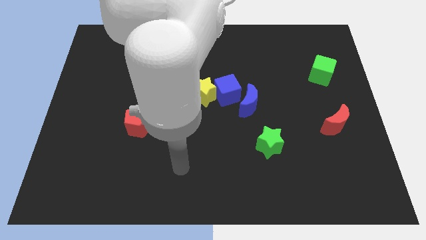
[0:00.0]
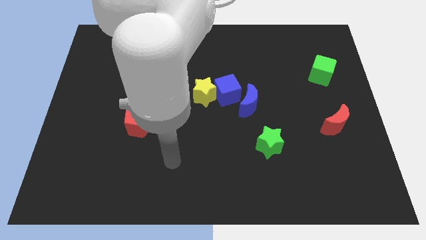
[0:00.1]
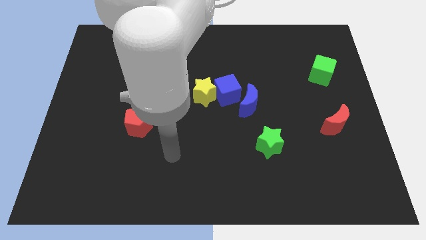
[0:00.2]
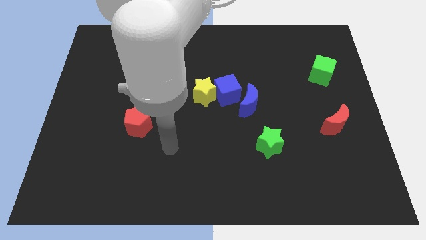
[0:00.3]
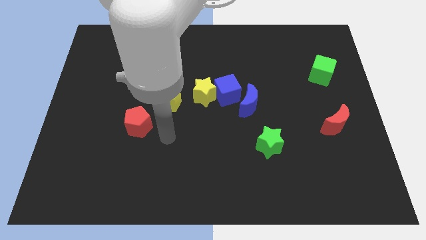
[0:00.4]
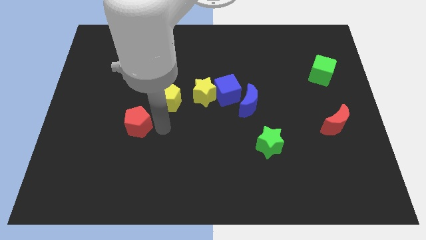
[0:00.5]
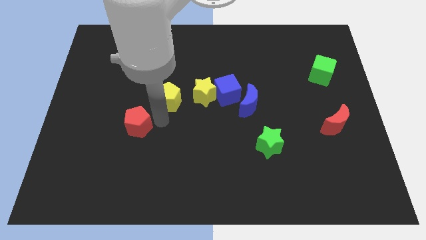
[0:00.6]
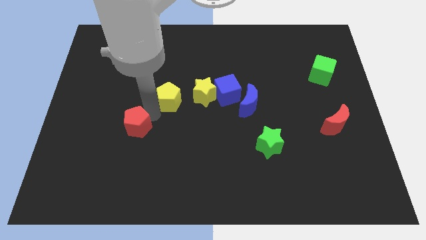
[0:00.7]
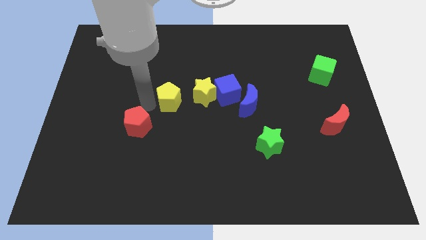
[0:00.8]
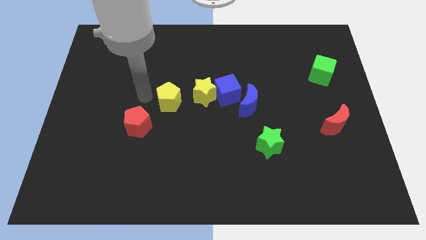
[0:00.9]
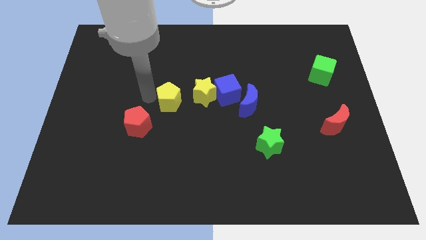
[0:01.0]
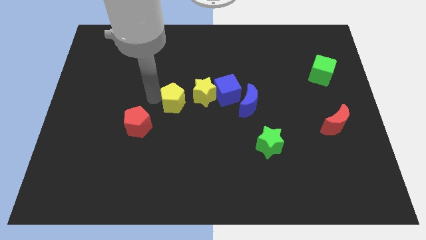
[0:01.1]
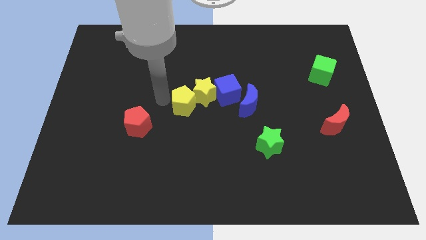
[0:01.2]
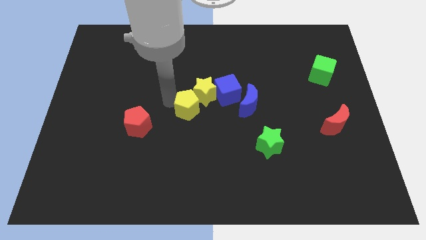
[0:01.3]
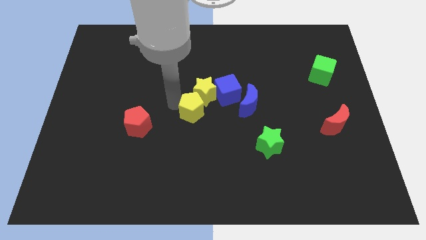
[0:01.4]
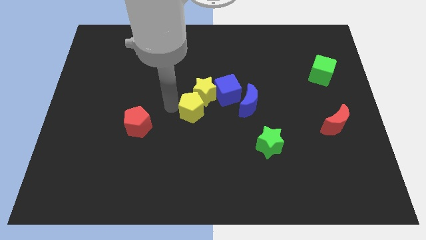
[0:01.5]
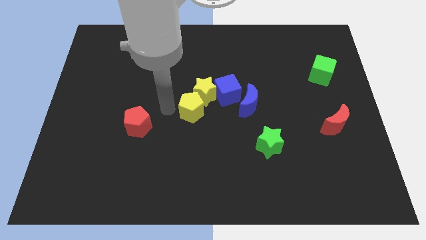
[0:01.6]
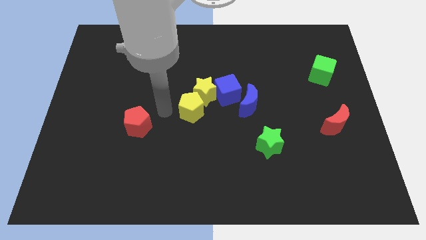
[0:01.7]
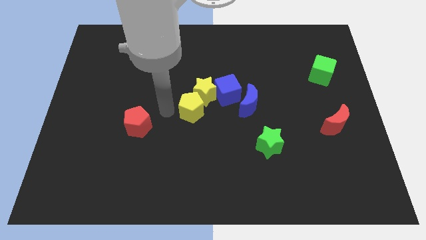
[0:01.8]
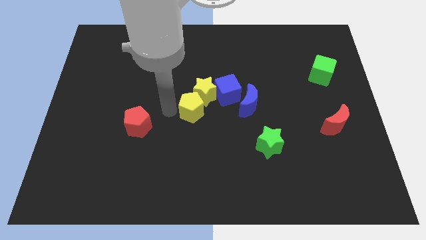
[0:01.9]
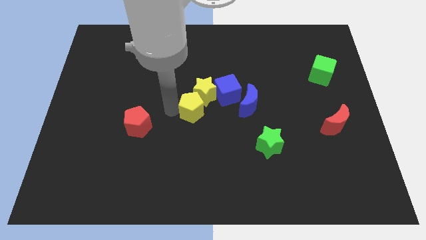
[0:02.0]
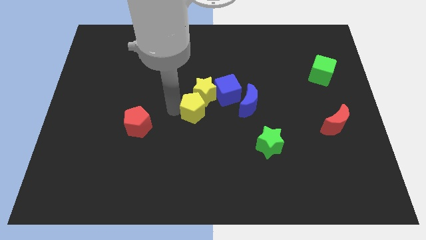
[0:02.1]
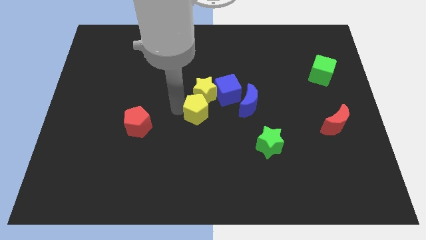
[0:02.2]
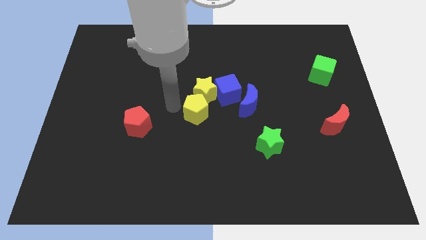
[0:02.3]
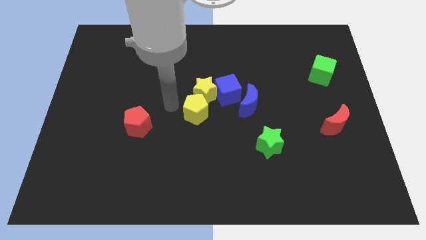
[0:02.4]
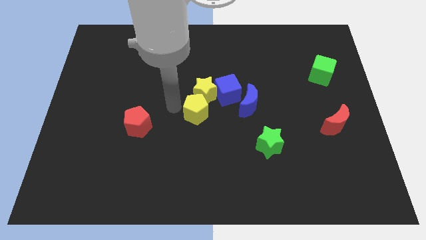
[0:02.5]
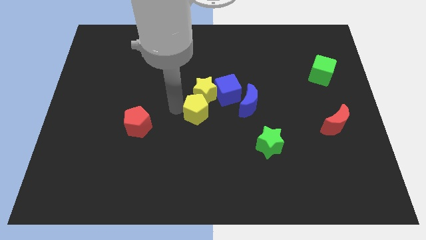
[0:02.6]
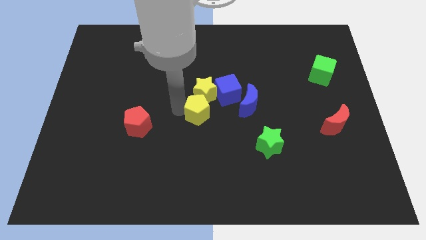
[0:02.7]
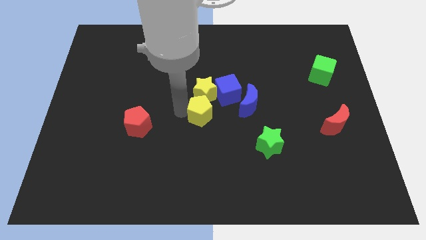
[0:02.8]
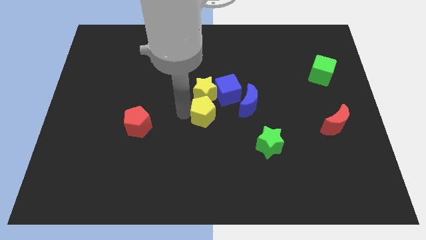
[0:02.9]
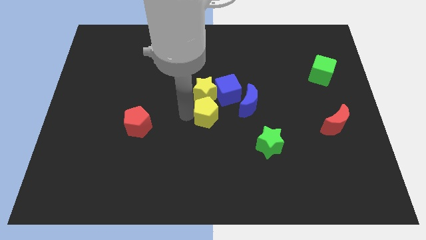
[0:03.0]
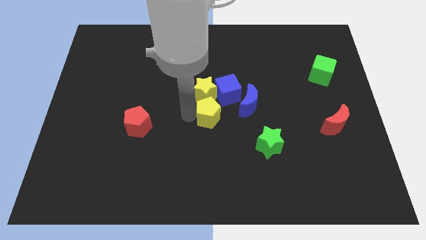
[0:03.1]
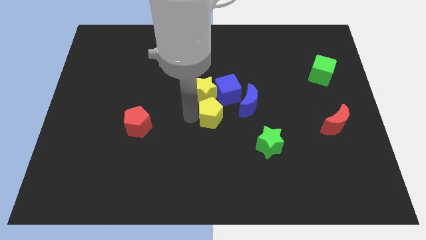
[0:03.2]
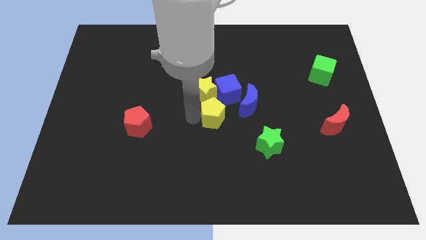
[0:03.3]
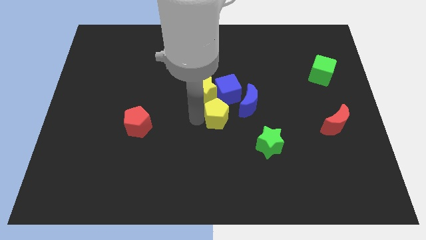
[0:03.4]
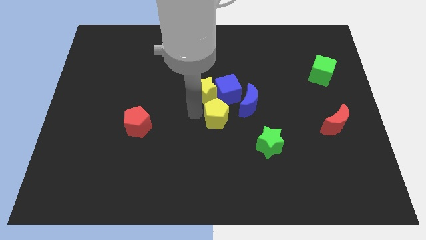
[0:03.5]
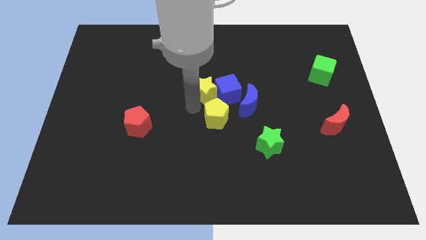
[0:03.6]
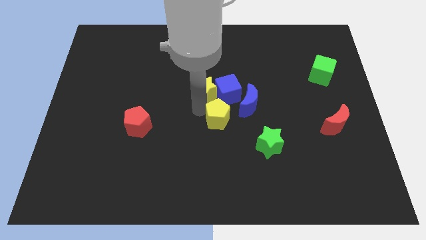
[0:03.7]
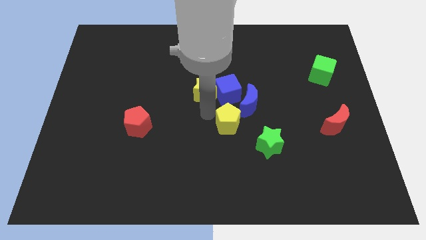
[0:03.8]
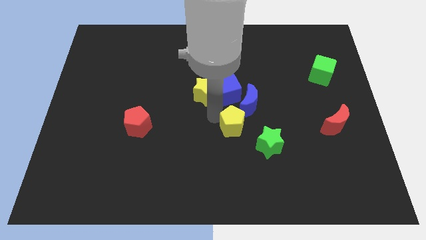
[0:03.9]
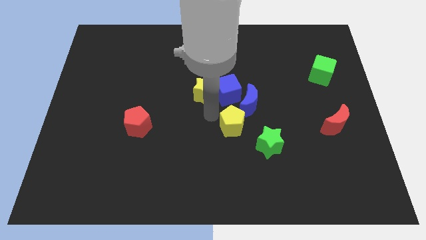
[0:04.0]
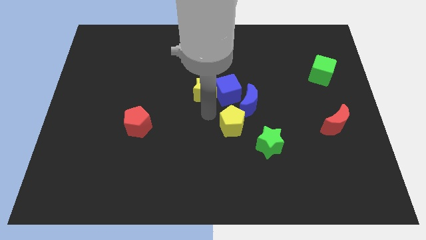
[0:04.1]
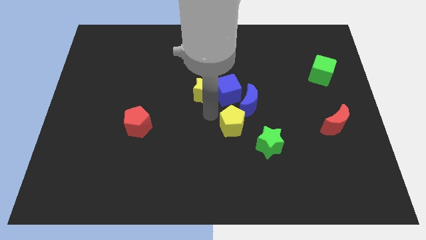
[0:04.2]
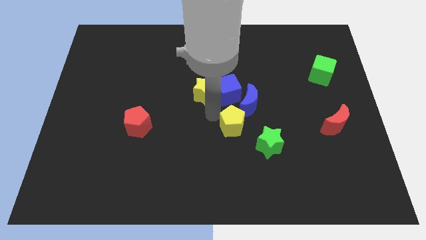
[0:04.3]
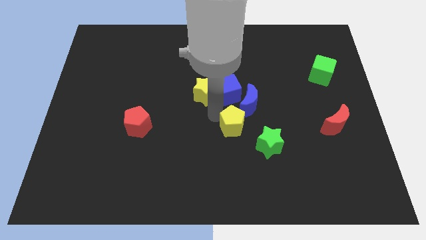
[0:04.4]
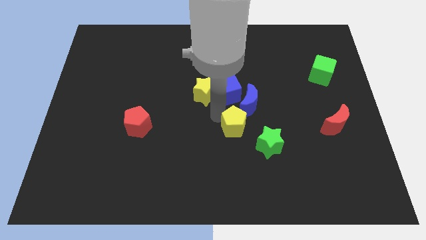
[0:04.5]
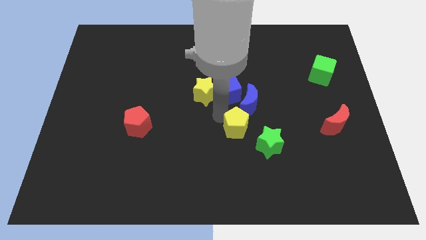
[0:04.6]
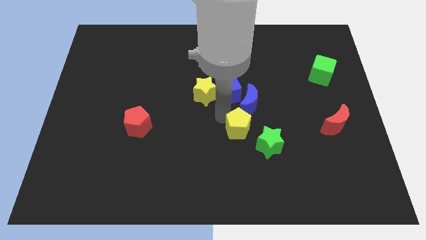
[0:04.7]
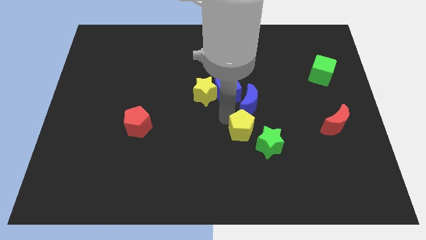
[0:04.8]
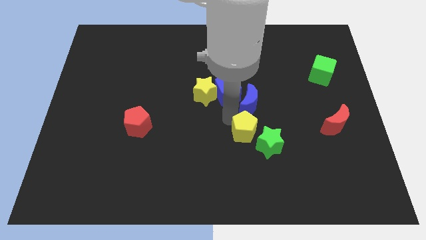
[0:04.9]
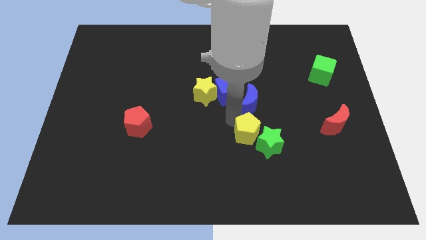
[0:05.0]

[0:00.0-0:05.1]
push the yellow pentagon to the green star

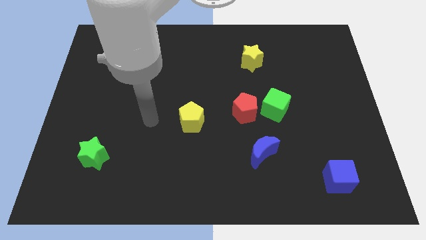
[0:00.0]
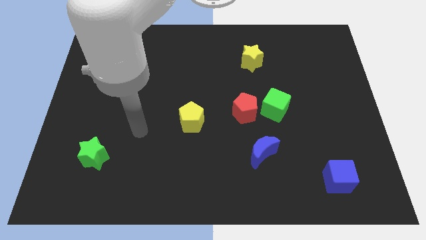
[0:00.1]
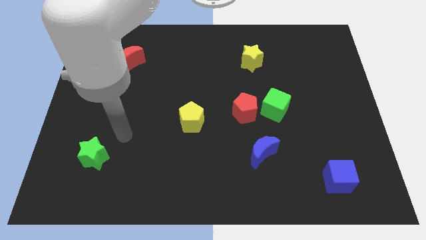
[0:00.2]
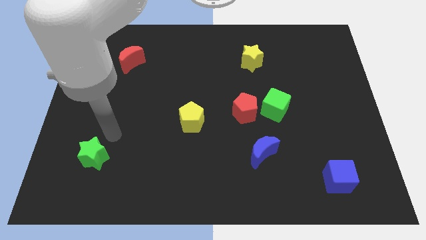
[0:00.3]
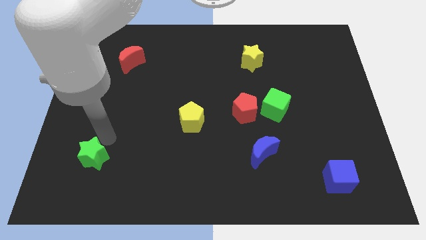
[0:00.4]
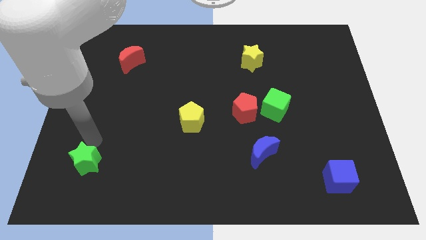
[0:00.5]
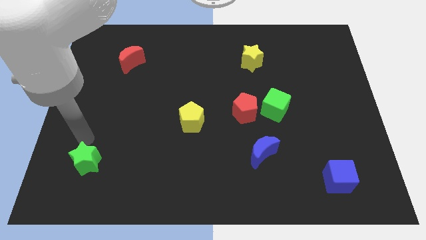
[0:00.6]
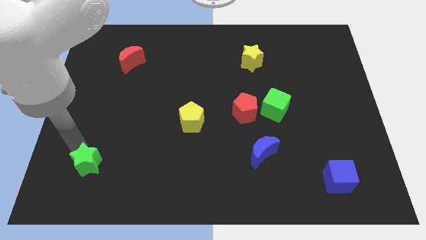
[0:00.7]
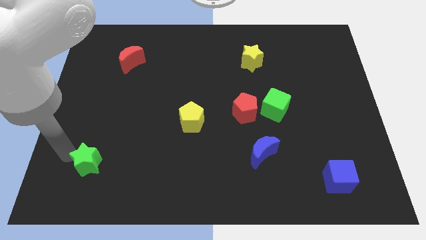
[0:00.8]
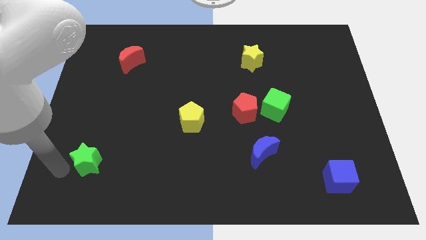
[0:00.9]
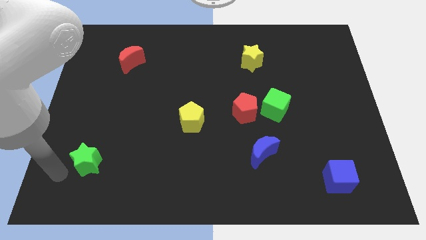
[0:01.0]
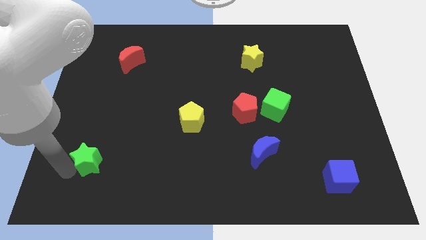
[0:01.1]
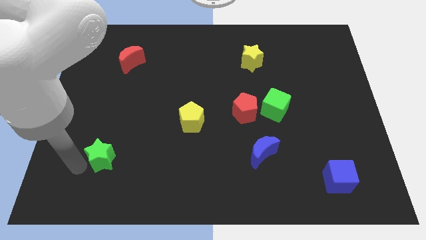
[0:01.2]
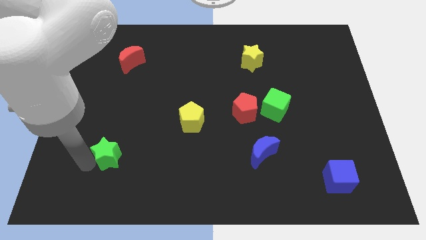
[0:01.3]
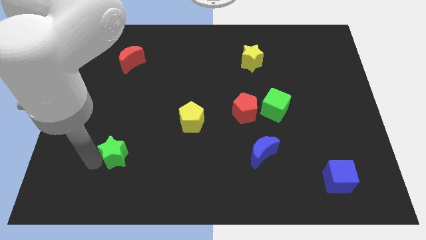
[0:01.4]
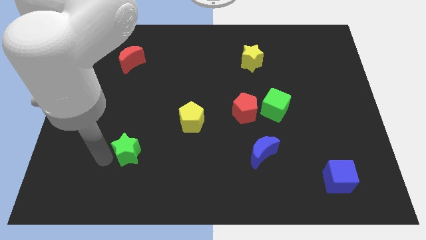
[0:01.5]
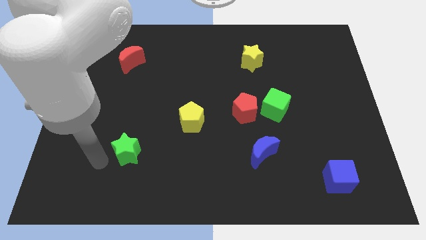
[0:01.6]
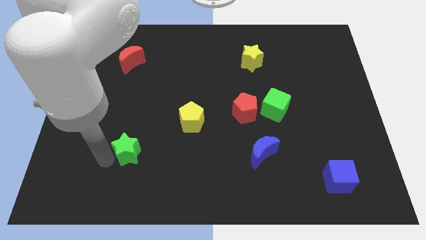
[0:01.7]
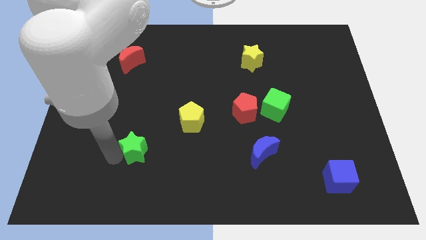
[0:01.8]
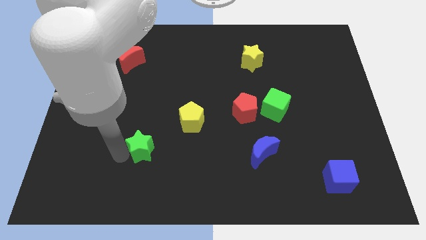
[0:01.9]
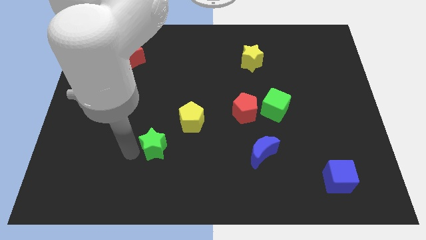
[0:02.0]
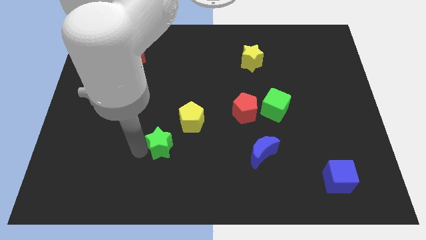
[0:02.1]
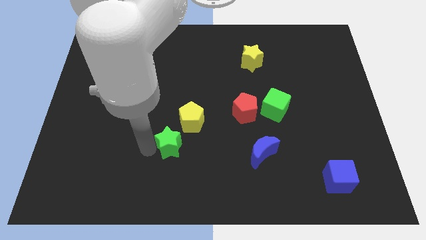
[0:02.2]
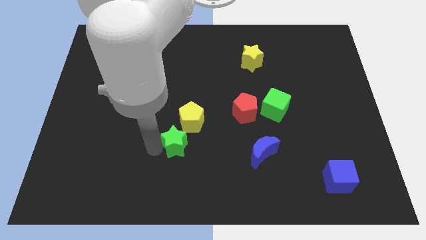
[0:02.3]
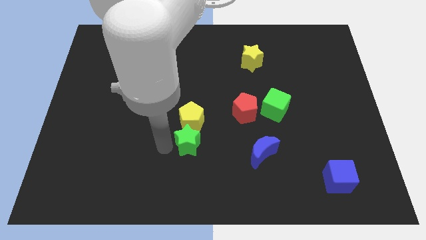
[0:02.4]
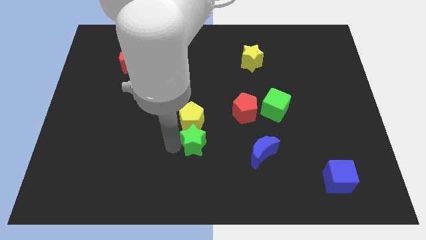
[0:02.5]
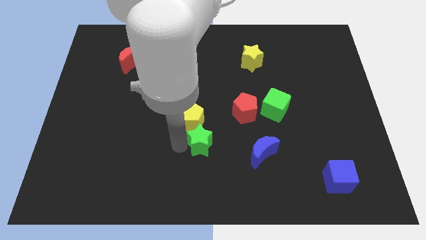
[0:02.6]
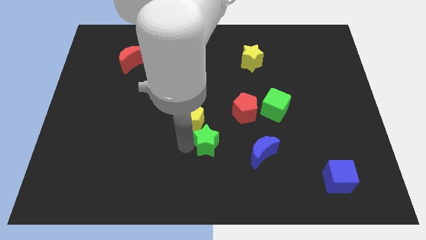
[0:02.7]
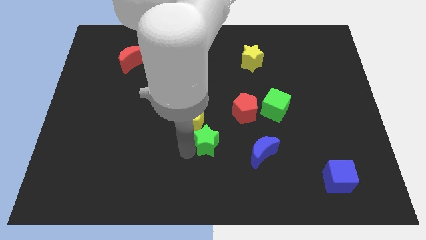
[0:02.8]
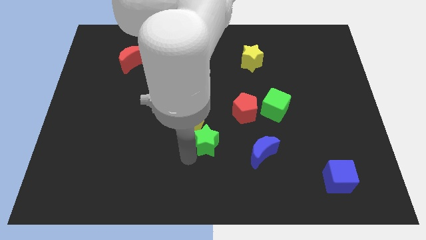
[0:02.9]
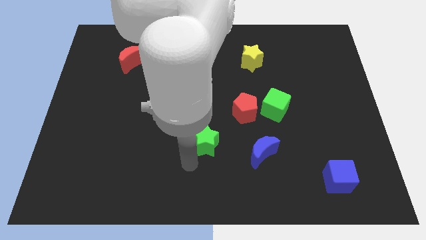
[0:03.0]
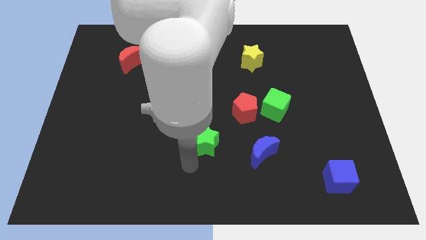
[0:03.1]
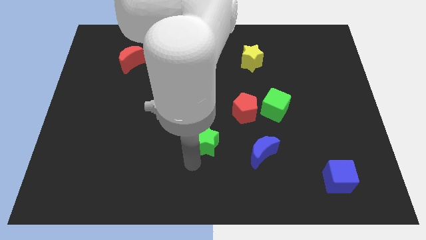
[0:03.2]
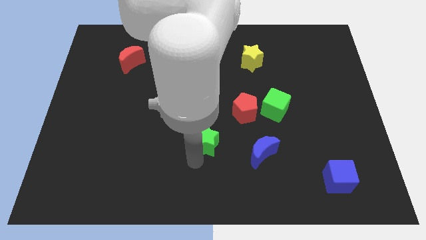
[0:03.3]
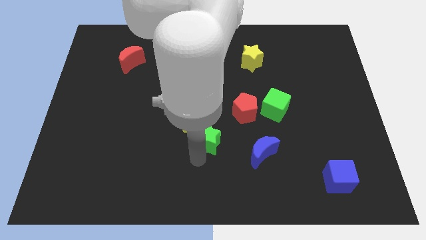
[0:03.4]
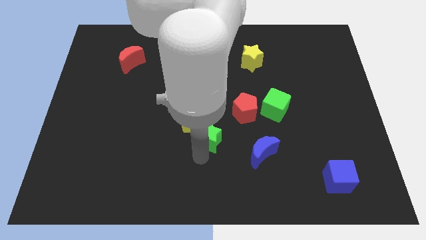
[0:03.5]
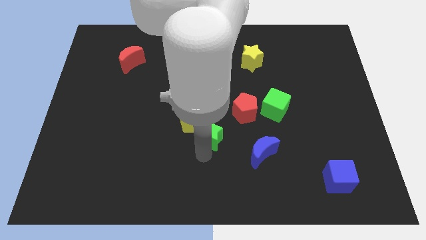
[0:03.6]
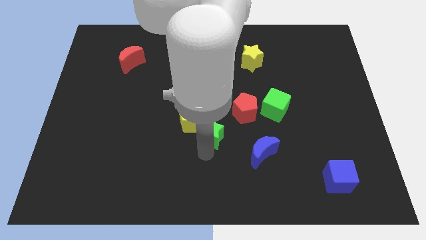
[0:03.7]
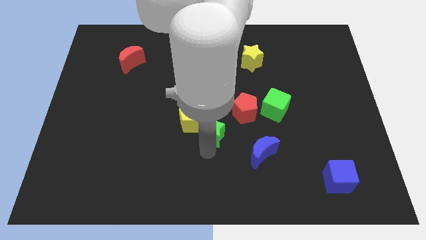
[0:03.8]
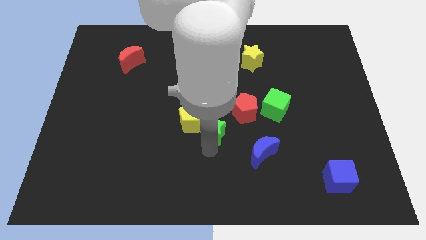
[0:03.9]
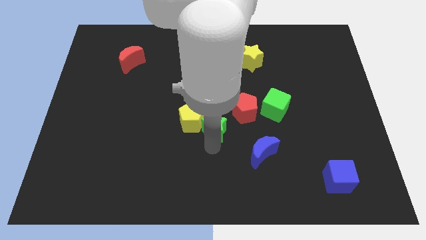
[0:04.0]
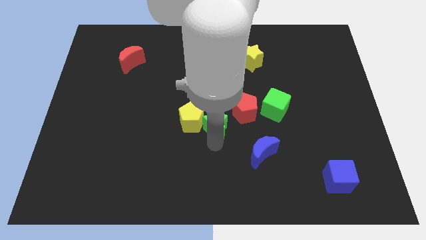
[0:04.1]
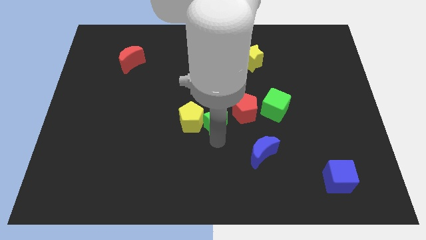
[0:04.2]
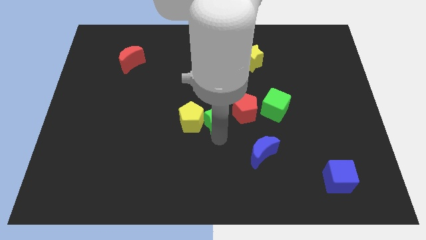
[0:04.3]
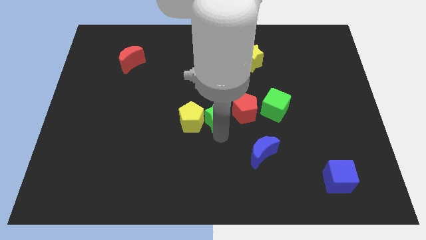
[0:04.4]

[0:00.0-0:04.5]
push the green star next to the red pentagon
